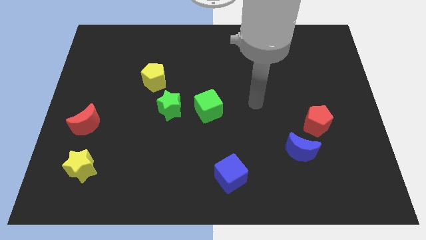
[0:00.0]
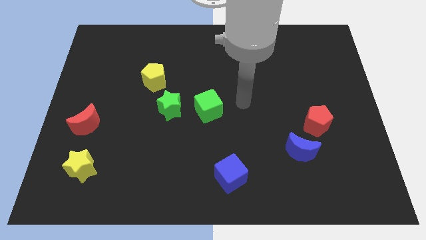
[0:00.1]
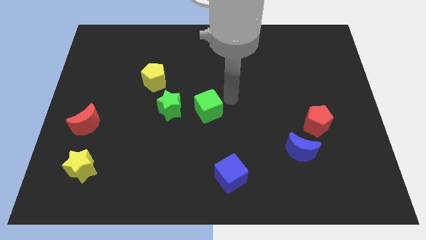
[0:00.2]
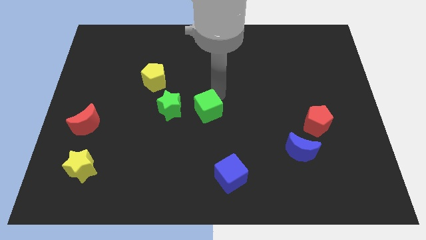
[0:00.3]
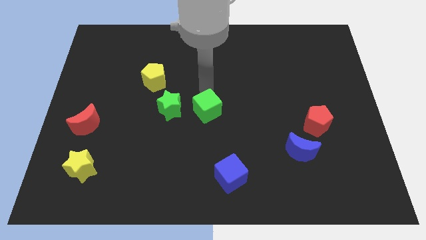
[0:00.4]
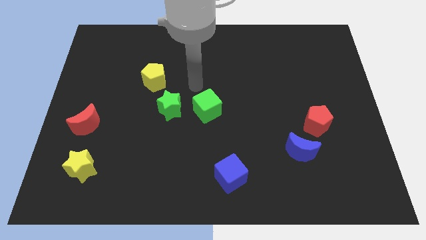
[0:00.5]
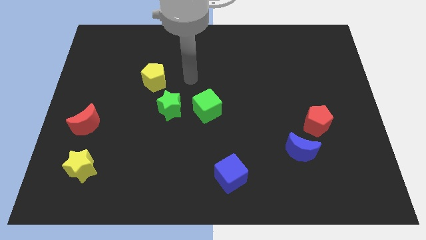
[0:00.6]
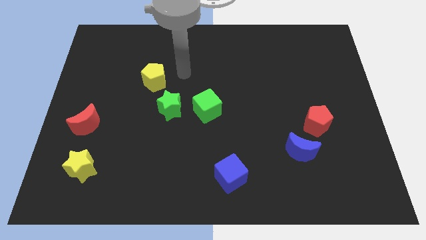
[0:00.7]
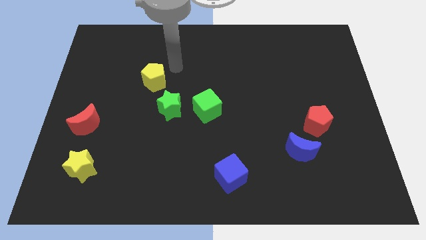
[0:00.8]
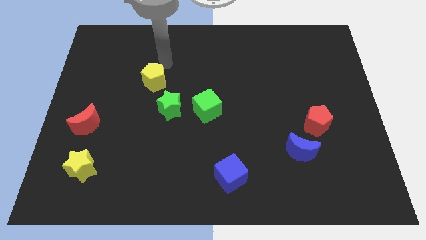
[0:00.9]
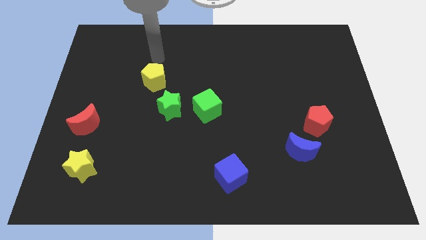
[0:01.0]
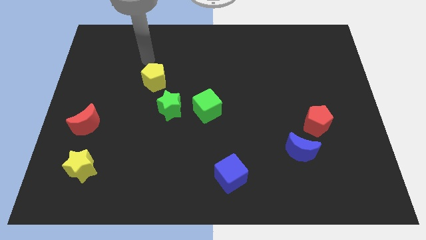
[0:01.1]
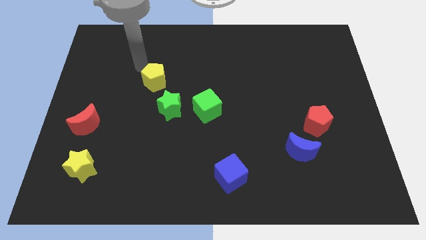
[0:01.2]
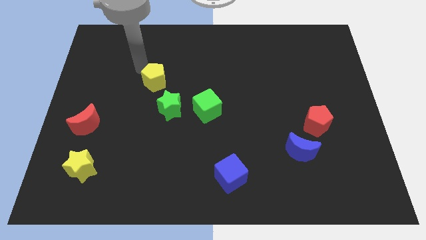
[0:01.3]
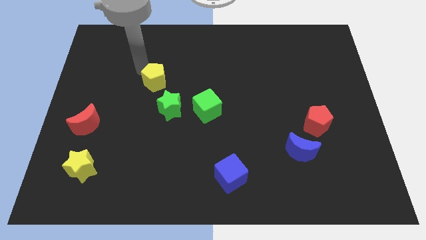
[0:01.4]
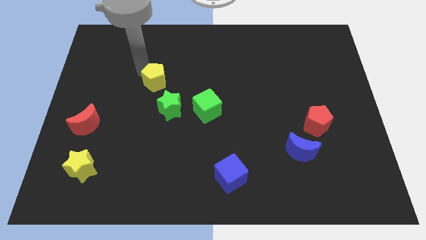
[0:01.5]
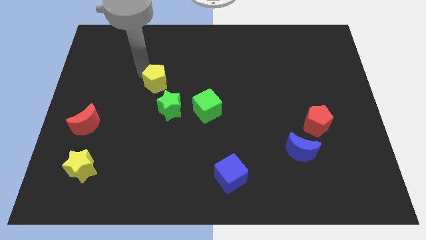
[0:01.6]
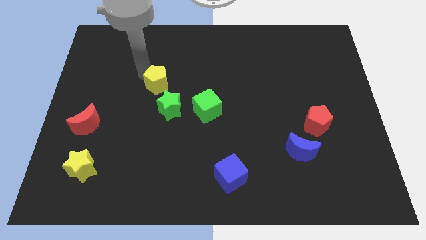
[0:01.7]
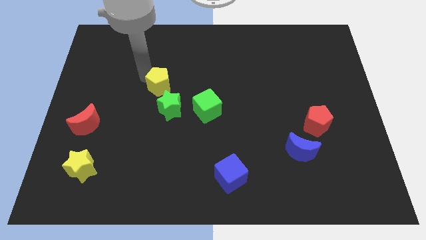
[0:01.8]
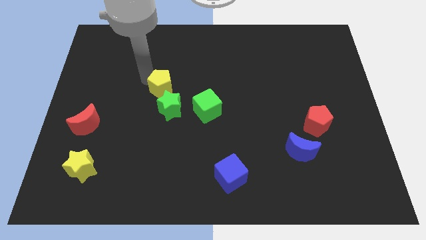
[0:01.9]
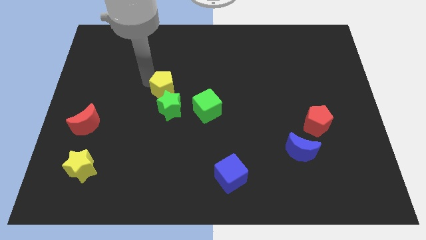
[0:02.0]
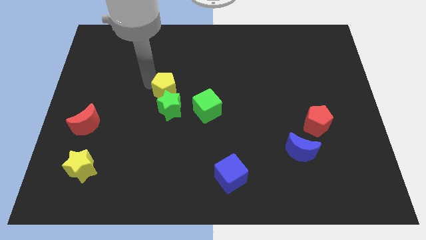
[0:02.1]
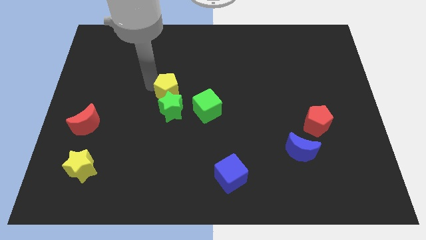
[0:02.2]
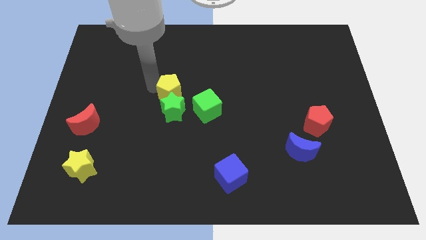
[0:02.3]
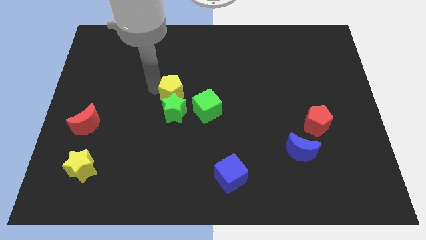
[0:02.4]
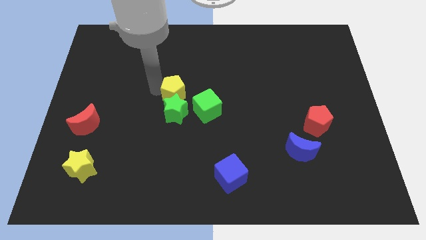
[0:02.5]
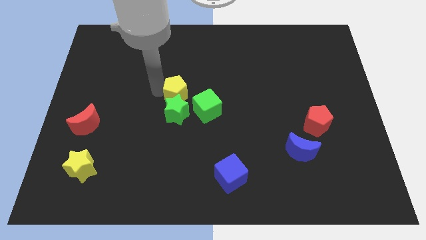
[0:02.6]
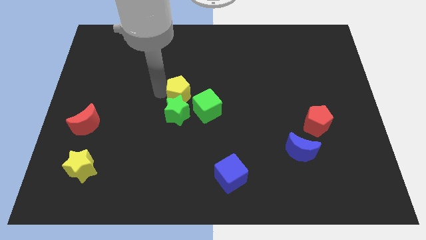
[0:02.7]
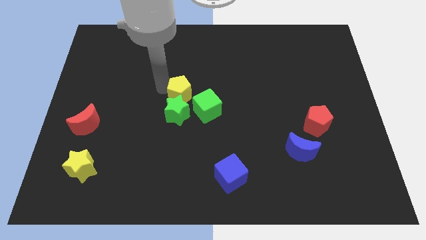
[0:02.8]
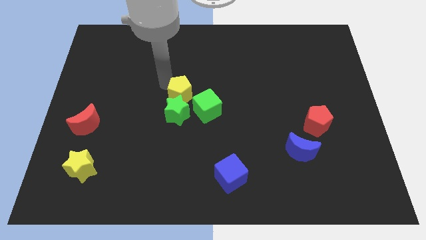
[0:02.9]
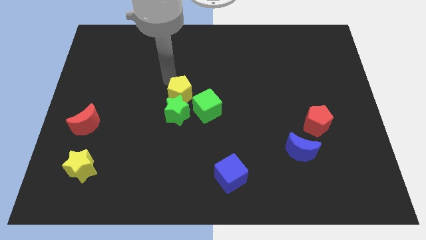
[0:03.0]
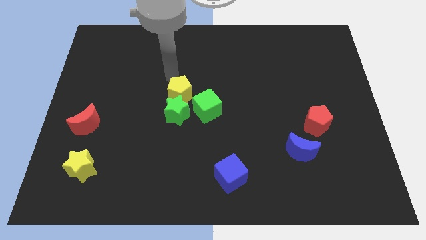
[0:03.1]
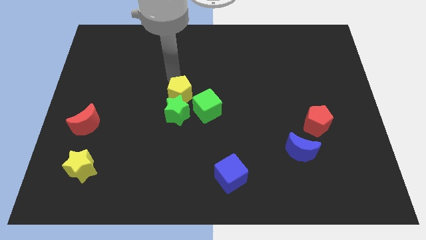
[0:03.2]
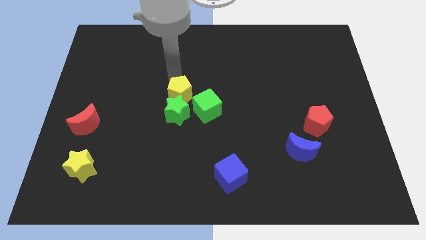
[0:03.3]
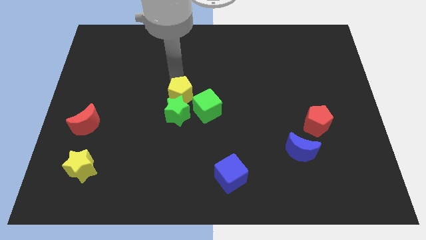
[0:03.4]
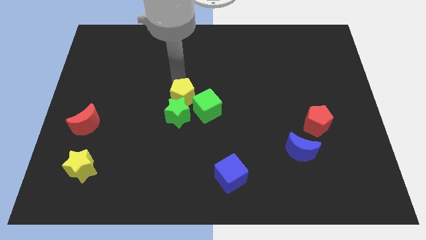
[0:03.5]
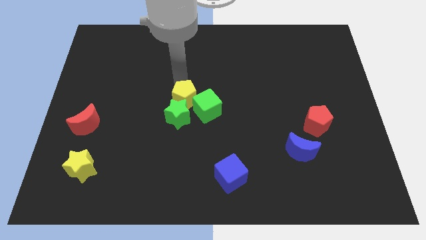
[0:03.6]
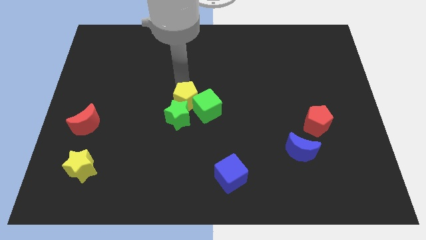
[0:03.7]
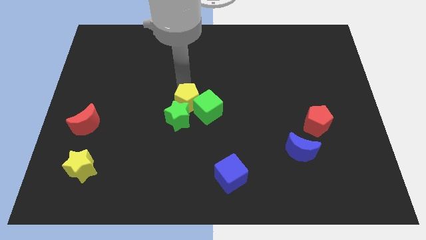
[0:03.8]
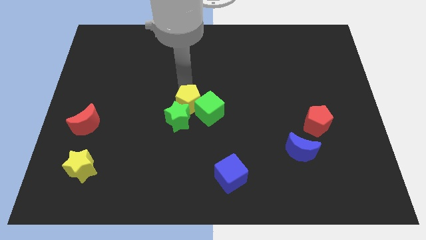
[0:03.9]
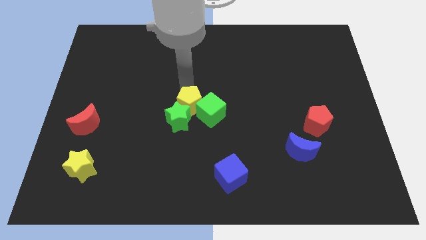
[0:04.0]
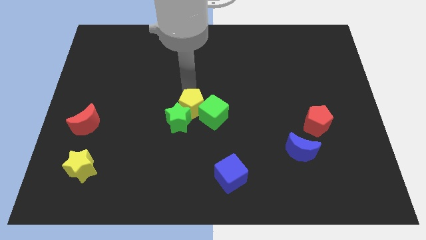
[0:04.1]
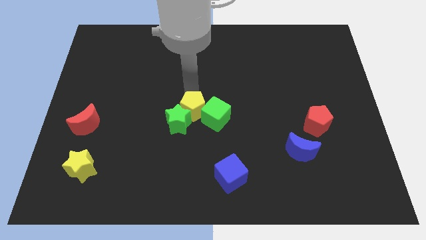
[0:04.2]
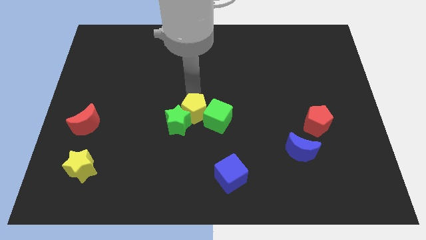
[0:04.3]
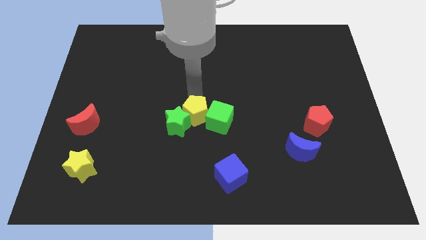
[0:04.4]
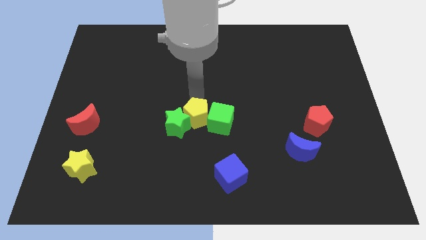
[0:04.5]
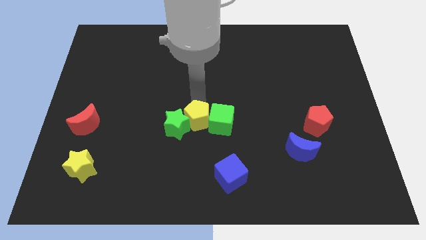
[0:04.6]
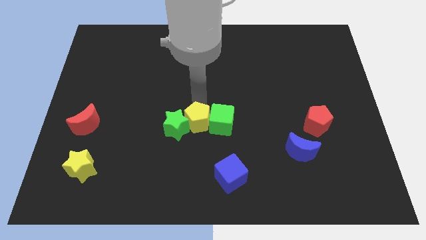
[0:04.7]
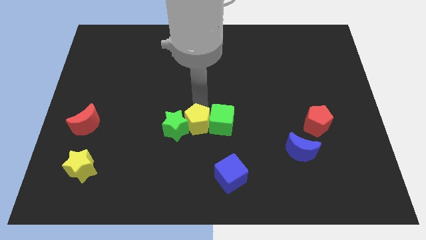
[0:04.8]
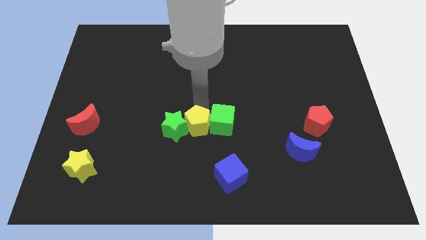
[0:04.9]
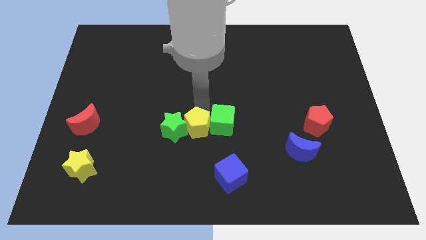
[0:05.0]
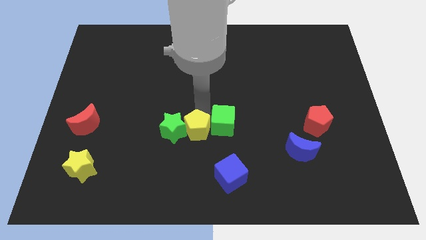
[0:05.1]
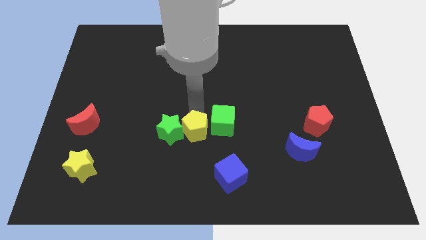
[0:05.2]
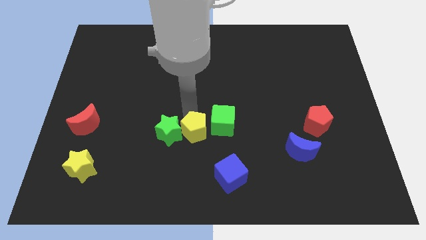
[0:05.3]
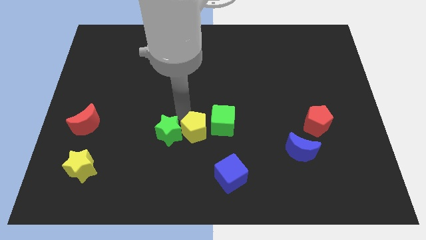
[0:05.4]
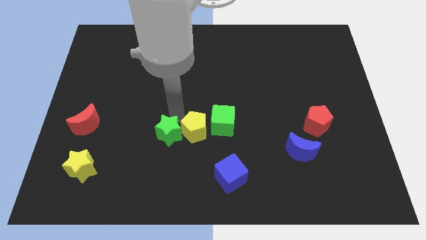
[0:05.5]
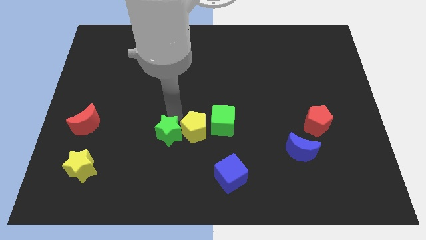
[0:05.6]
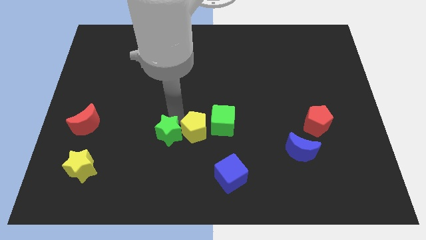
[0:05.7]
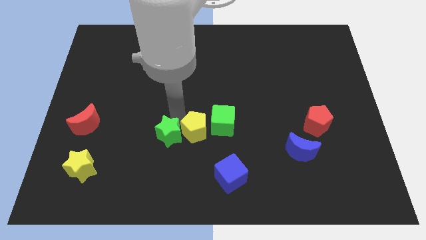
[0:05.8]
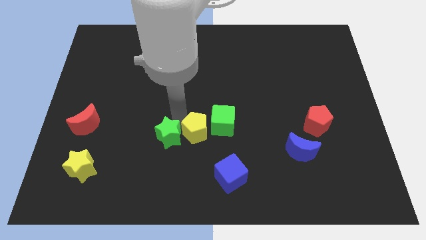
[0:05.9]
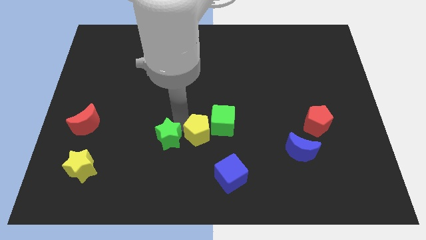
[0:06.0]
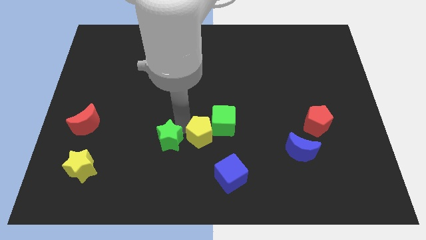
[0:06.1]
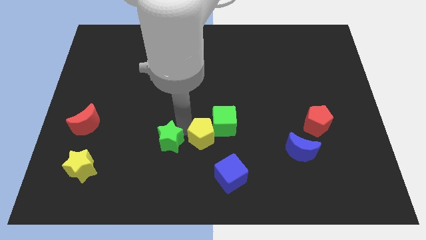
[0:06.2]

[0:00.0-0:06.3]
push the yellow pentagon down and right

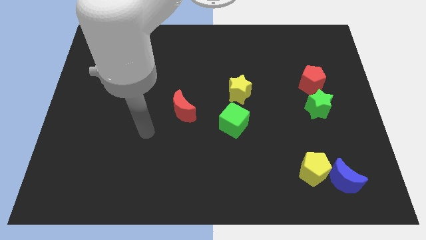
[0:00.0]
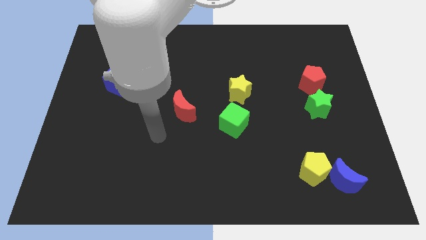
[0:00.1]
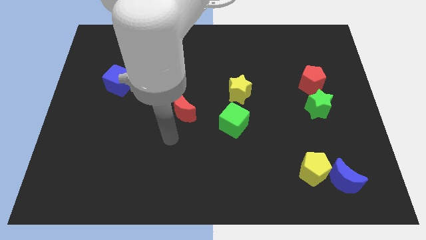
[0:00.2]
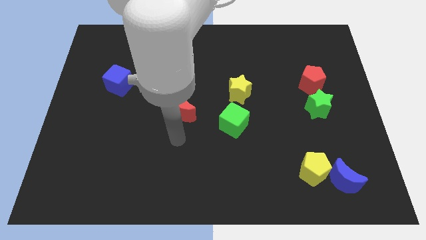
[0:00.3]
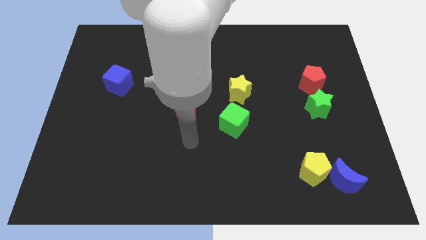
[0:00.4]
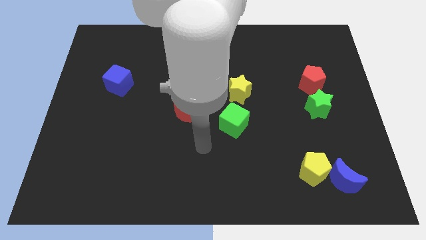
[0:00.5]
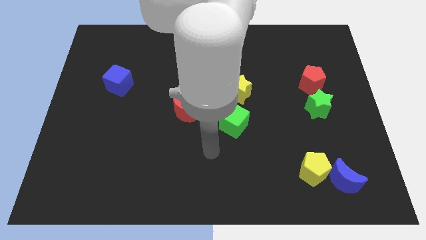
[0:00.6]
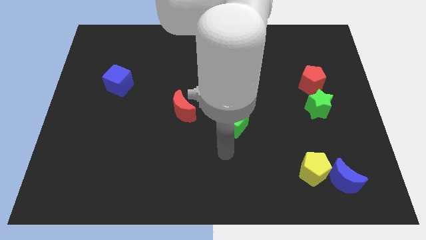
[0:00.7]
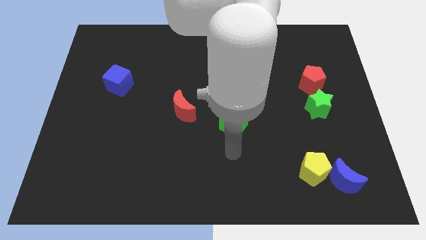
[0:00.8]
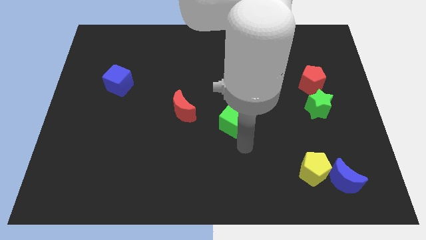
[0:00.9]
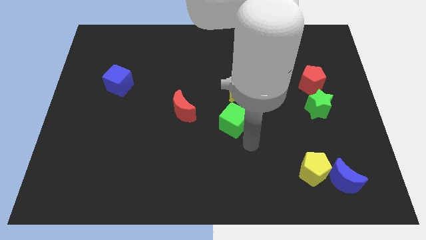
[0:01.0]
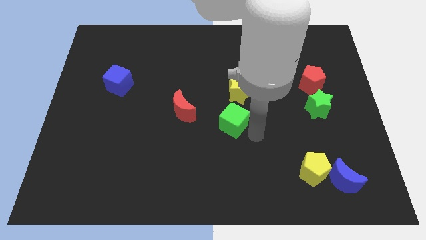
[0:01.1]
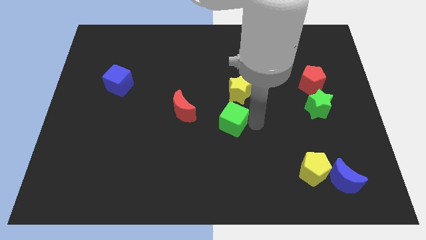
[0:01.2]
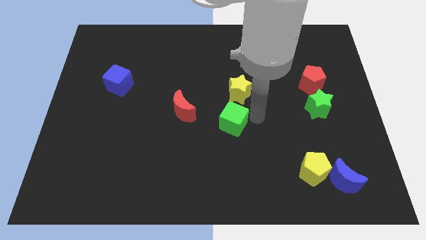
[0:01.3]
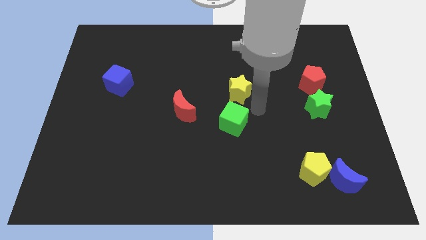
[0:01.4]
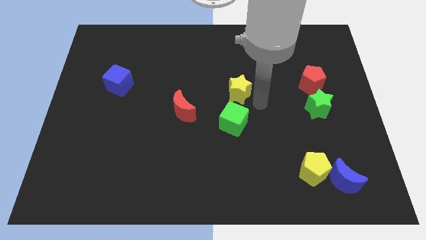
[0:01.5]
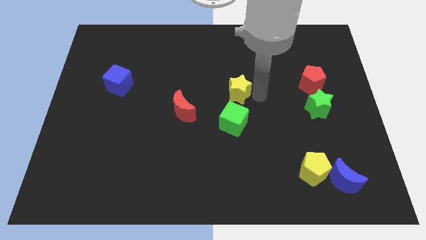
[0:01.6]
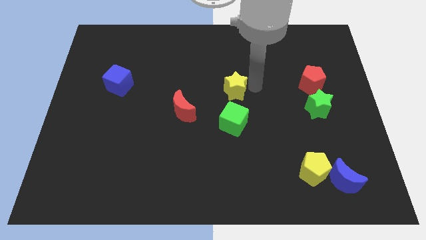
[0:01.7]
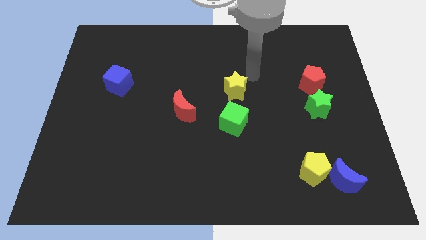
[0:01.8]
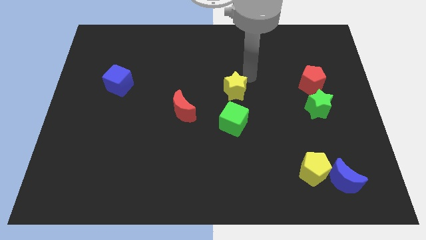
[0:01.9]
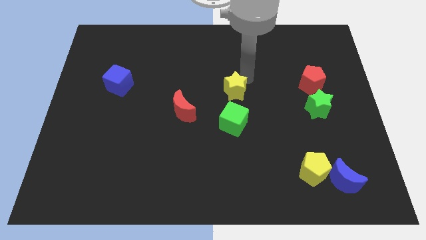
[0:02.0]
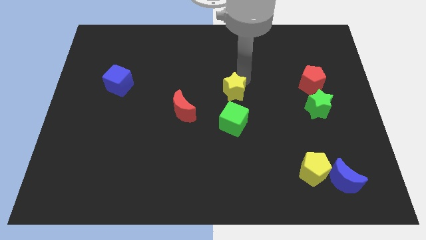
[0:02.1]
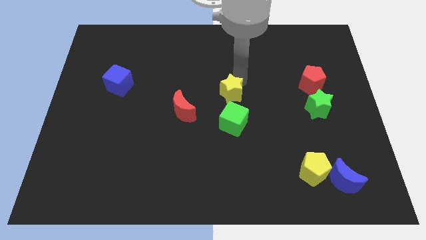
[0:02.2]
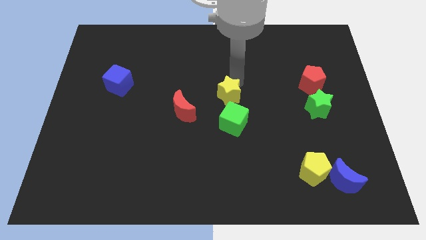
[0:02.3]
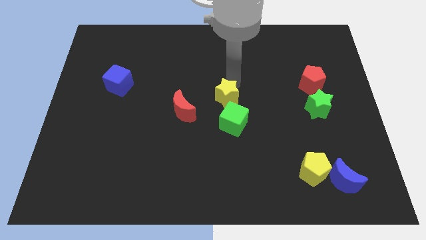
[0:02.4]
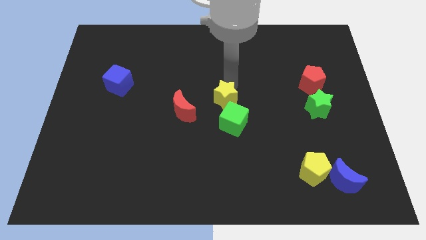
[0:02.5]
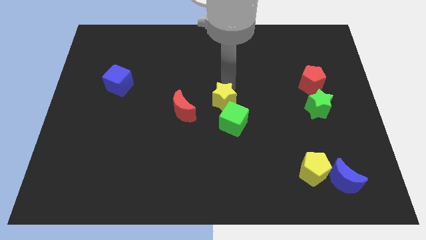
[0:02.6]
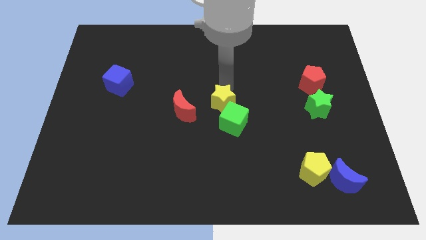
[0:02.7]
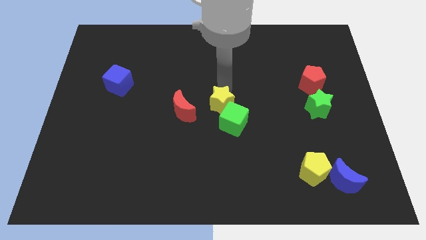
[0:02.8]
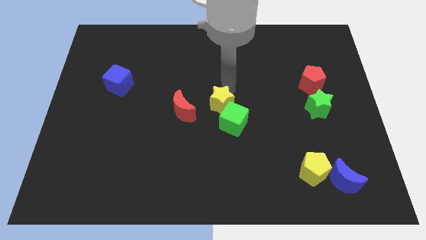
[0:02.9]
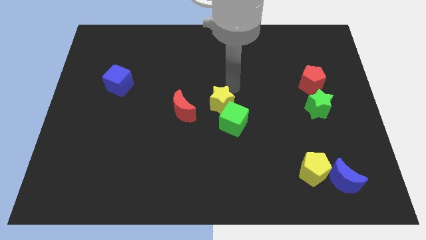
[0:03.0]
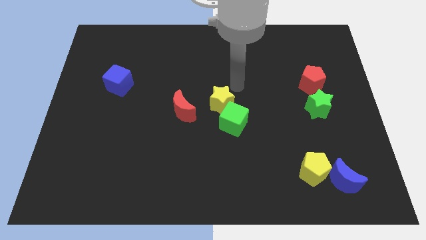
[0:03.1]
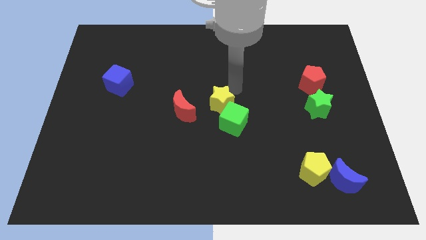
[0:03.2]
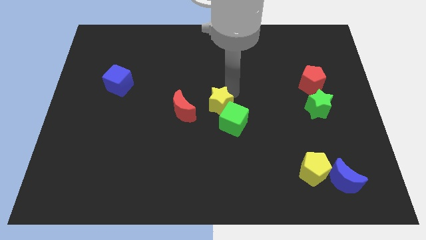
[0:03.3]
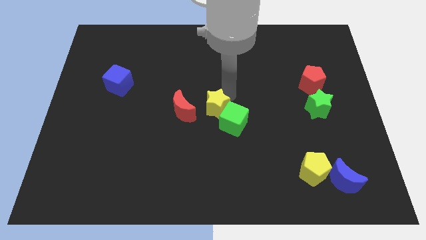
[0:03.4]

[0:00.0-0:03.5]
move the yellow star diagonally downwards and left slightly
